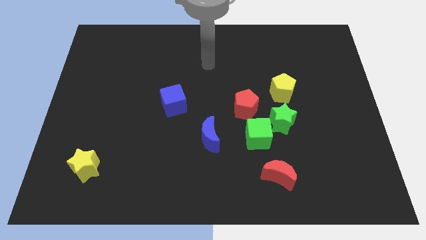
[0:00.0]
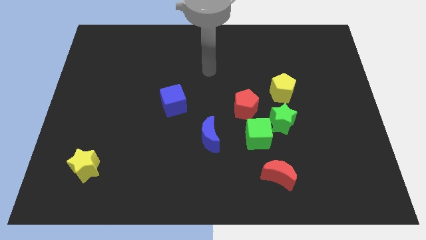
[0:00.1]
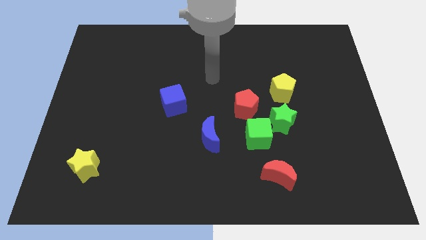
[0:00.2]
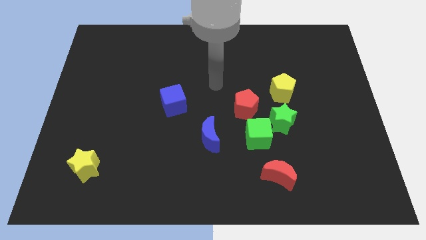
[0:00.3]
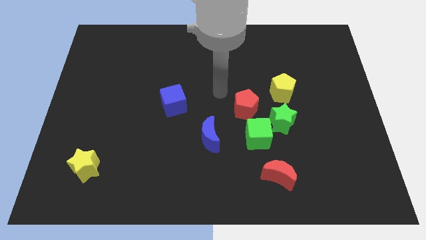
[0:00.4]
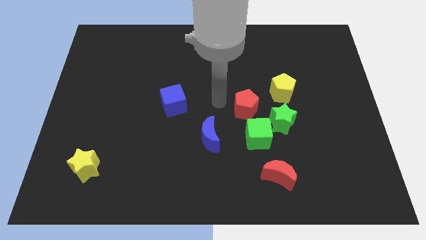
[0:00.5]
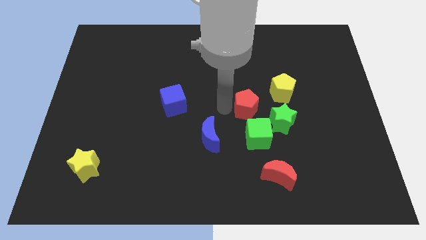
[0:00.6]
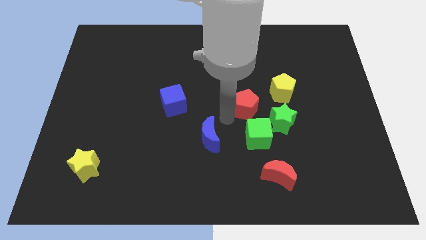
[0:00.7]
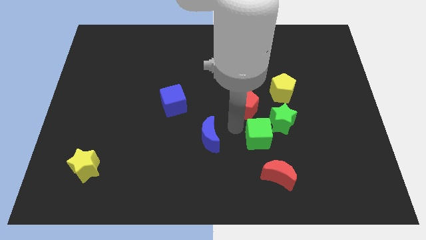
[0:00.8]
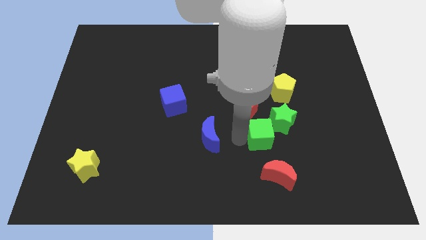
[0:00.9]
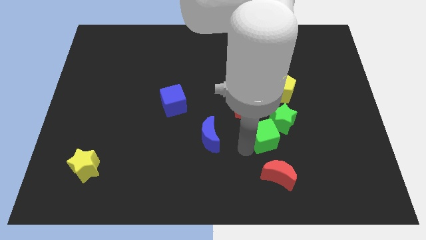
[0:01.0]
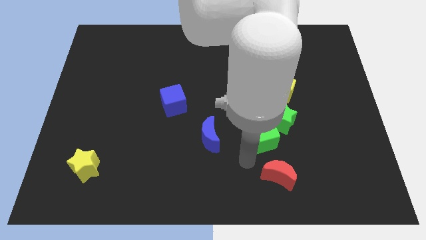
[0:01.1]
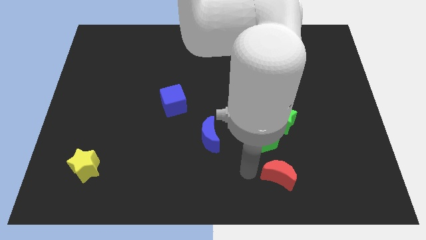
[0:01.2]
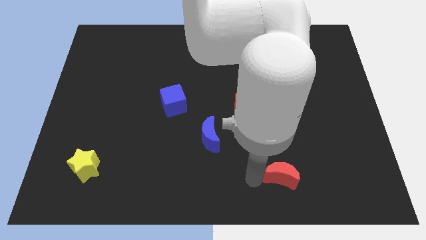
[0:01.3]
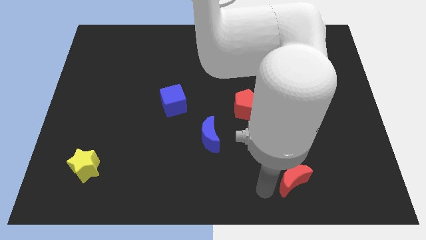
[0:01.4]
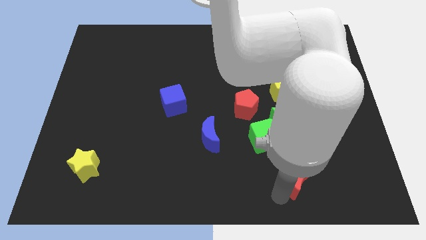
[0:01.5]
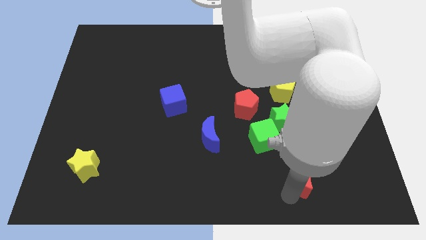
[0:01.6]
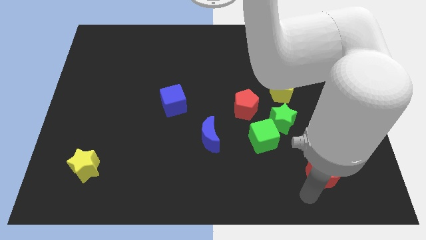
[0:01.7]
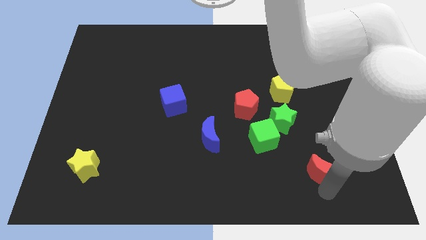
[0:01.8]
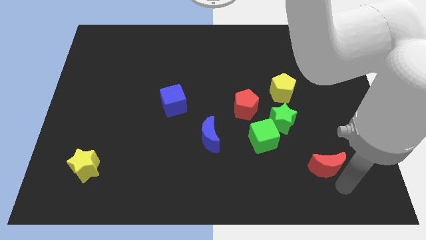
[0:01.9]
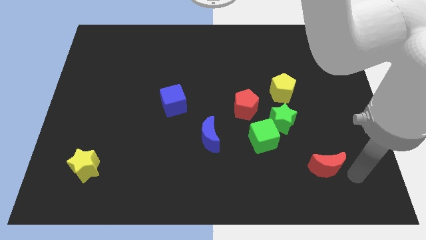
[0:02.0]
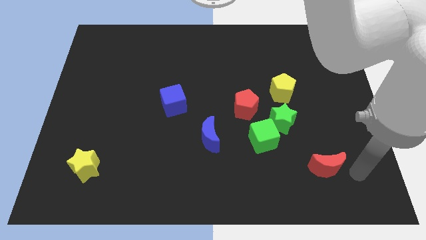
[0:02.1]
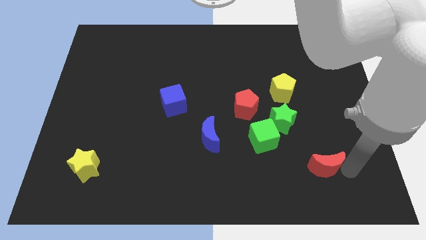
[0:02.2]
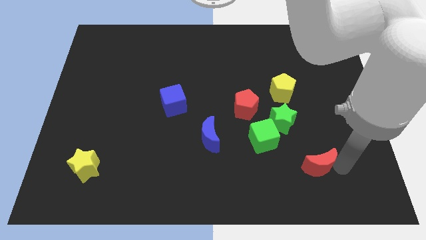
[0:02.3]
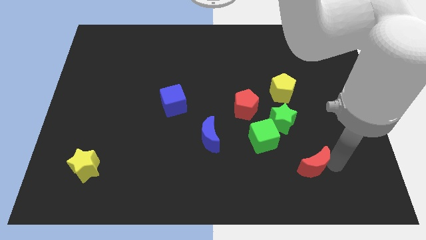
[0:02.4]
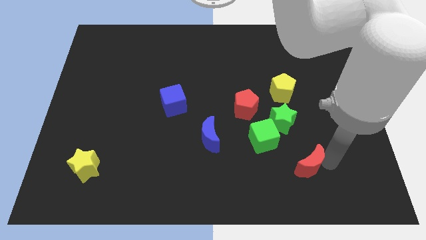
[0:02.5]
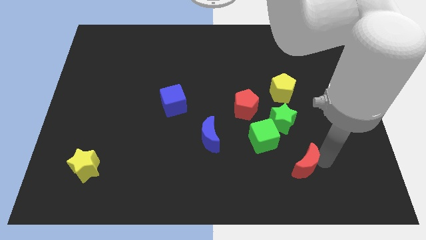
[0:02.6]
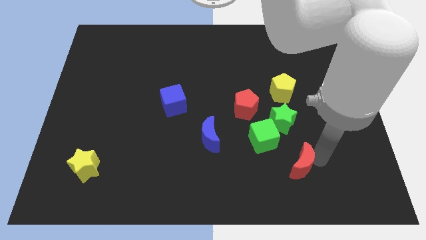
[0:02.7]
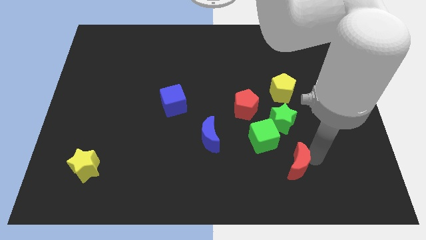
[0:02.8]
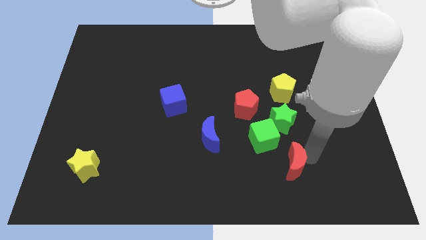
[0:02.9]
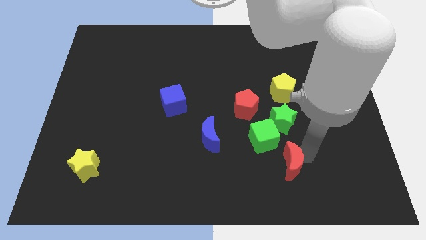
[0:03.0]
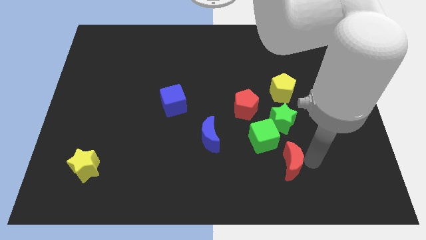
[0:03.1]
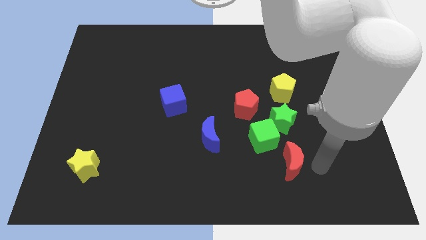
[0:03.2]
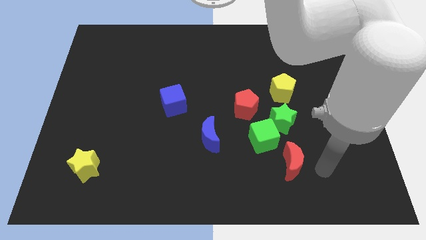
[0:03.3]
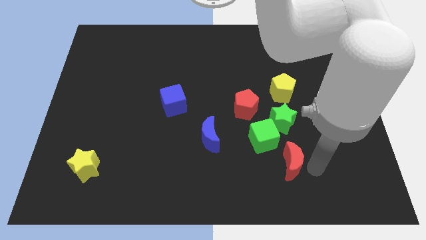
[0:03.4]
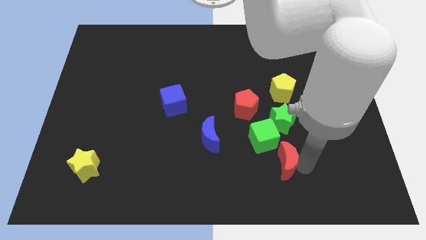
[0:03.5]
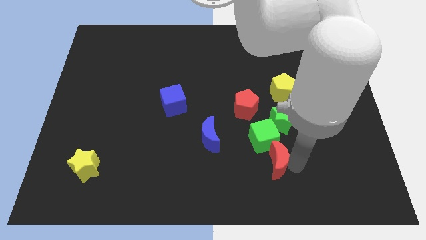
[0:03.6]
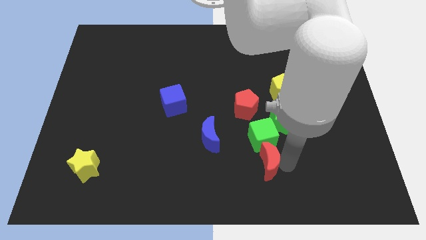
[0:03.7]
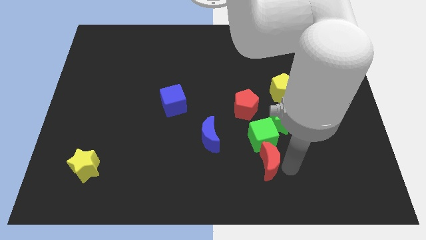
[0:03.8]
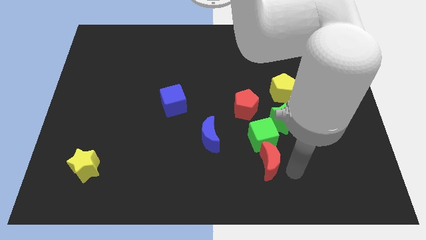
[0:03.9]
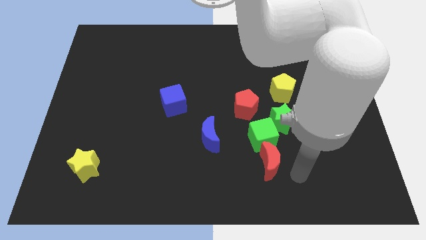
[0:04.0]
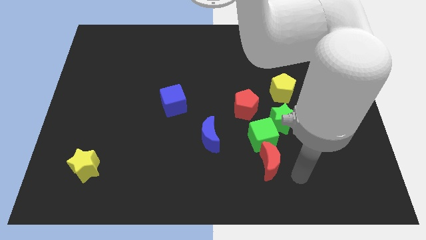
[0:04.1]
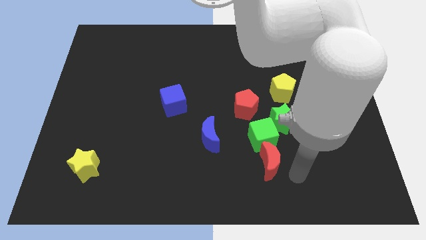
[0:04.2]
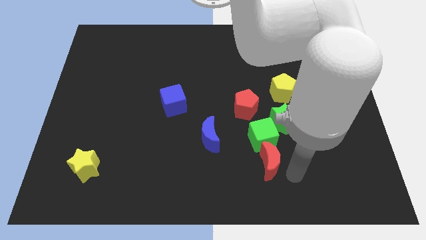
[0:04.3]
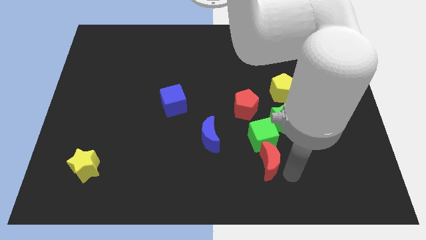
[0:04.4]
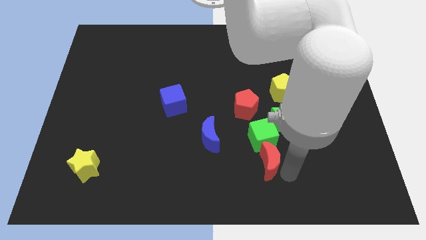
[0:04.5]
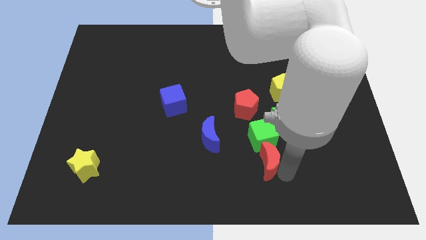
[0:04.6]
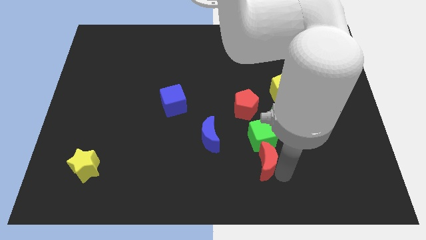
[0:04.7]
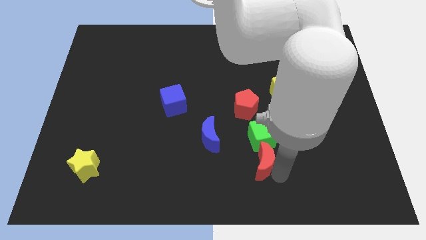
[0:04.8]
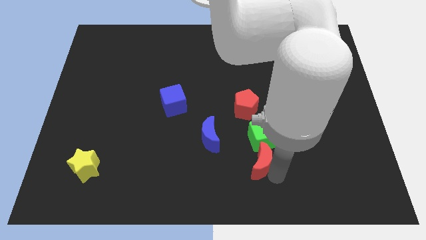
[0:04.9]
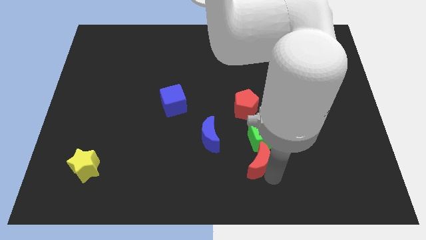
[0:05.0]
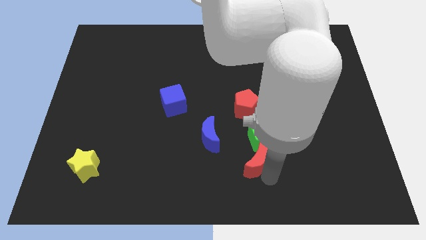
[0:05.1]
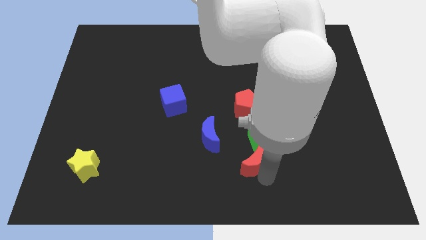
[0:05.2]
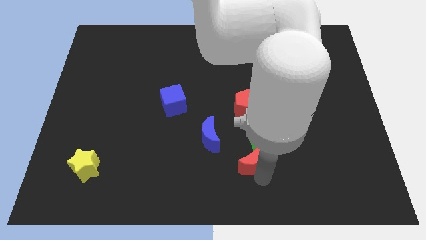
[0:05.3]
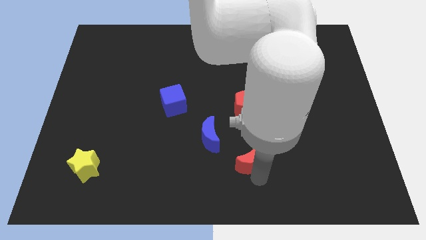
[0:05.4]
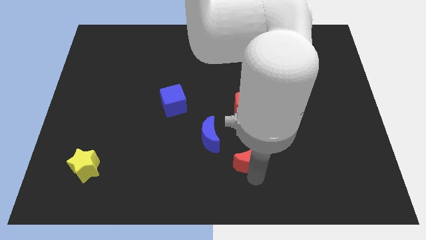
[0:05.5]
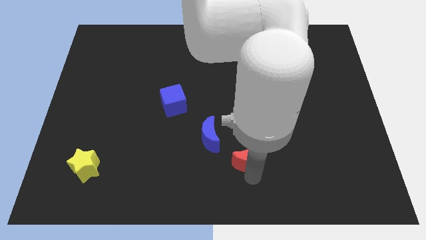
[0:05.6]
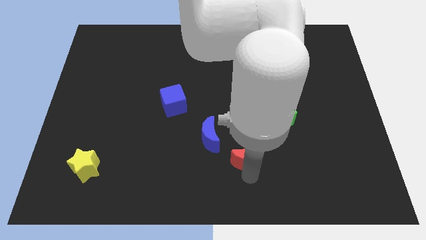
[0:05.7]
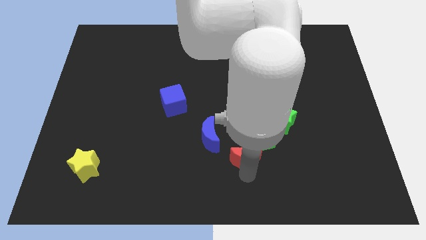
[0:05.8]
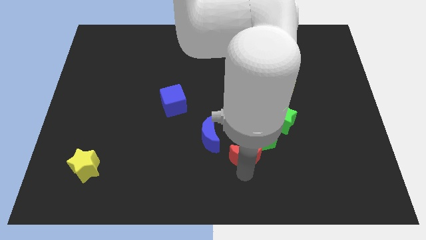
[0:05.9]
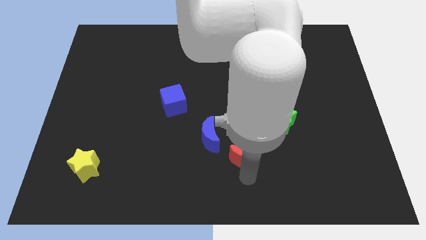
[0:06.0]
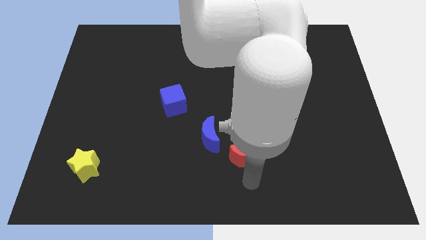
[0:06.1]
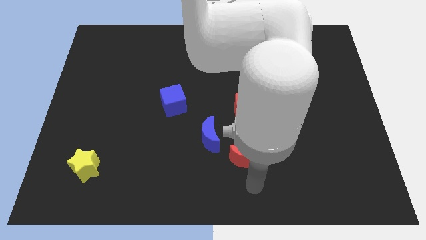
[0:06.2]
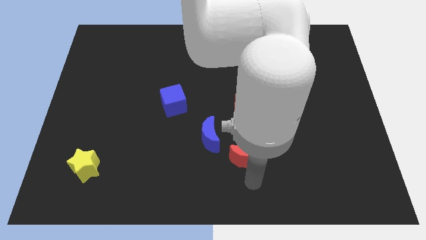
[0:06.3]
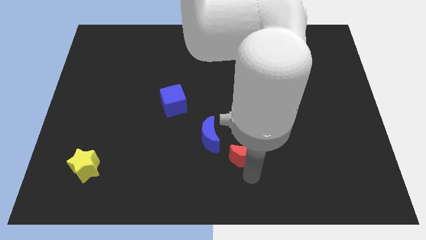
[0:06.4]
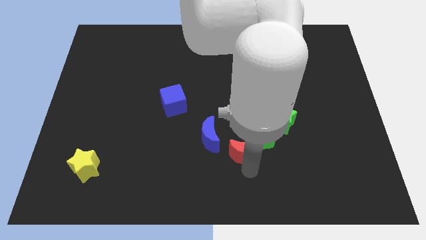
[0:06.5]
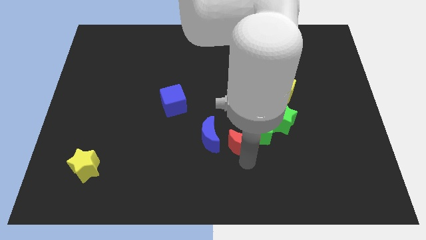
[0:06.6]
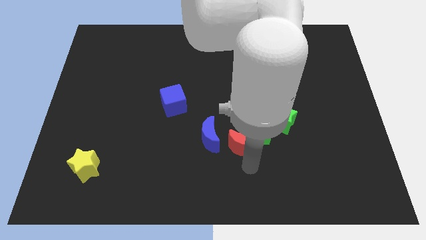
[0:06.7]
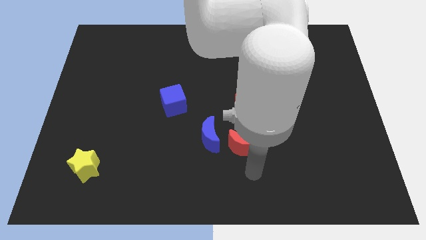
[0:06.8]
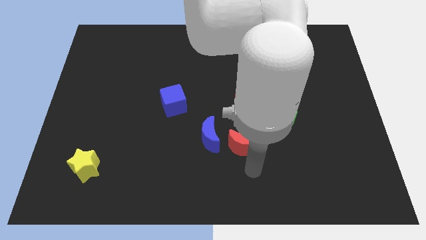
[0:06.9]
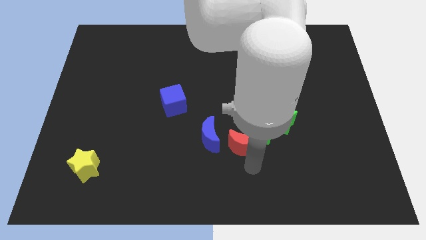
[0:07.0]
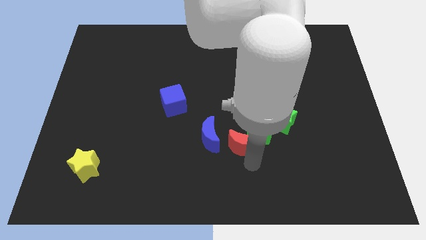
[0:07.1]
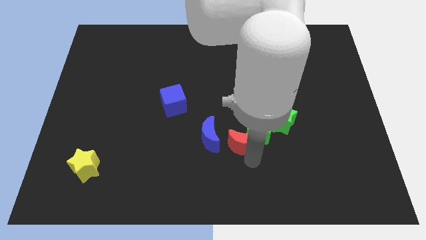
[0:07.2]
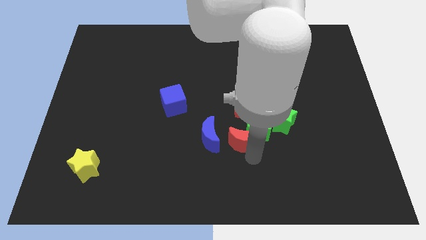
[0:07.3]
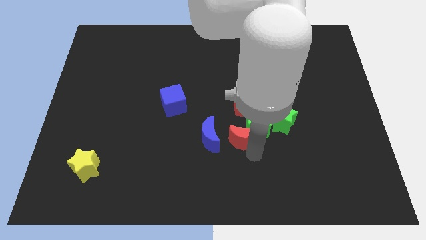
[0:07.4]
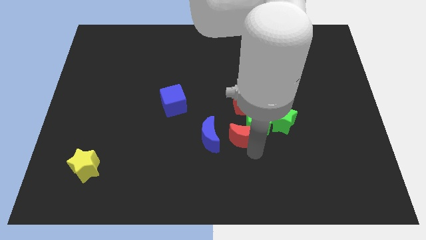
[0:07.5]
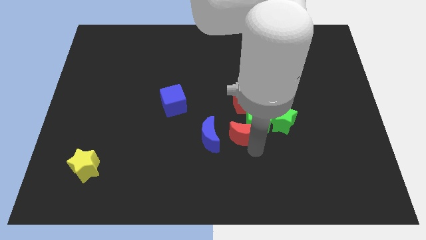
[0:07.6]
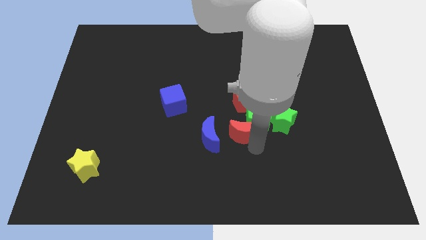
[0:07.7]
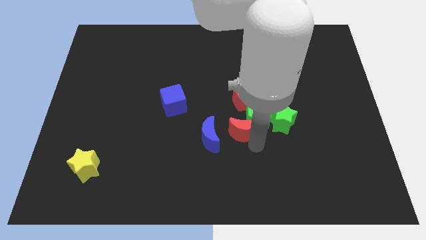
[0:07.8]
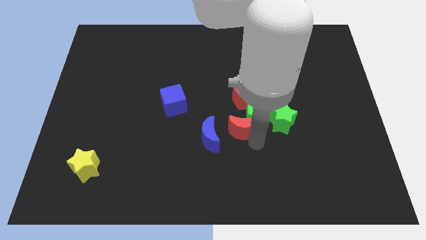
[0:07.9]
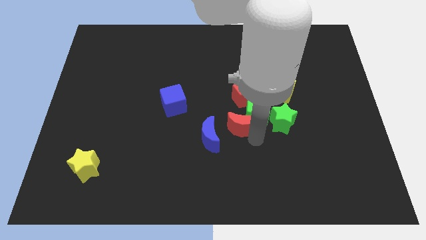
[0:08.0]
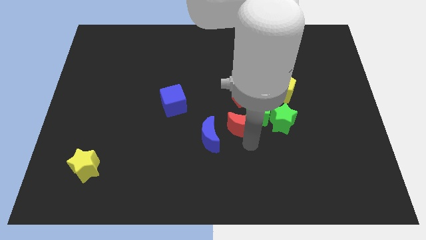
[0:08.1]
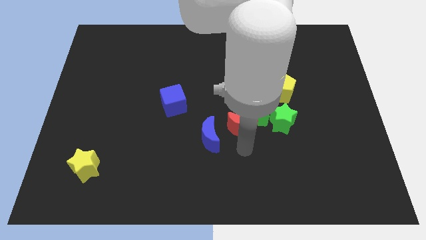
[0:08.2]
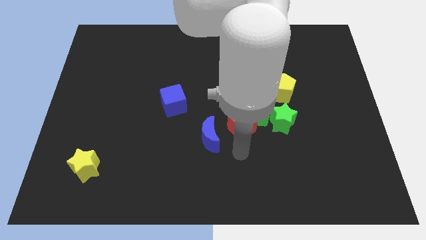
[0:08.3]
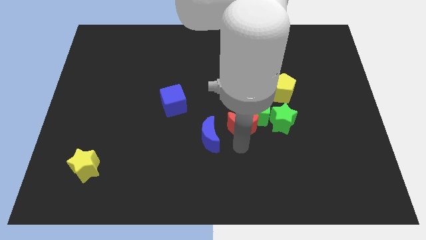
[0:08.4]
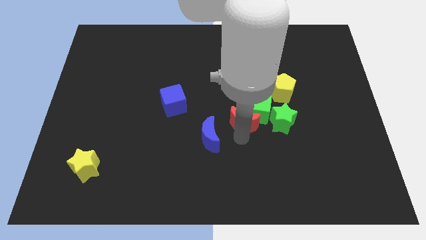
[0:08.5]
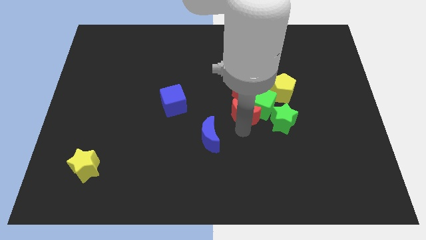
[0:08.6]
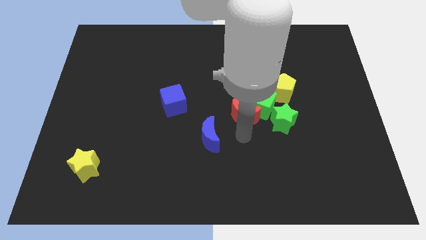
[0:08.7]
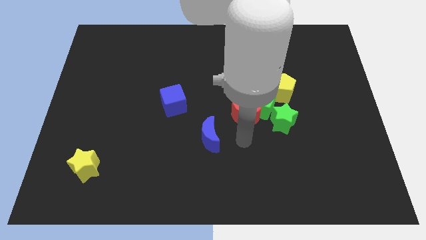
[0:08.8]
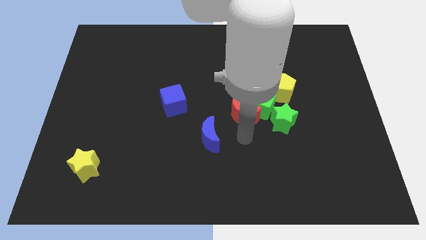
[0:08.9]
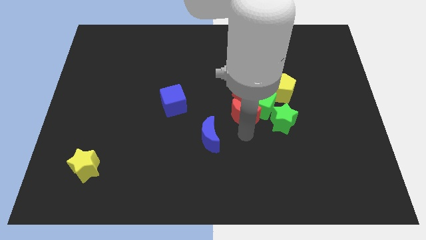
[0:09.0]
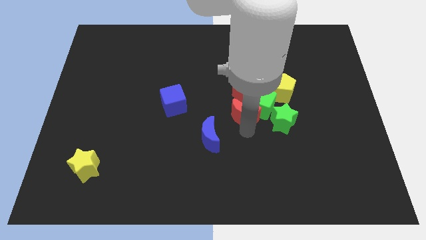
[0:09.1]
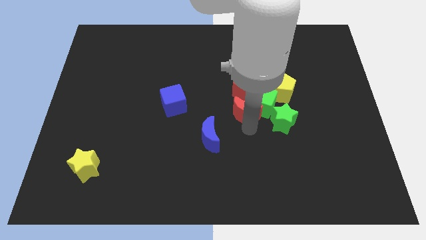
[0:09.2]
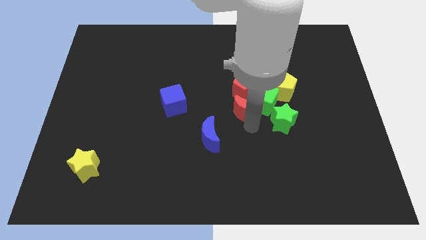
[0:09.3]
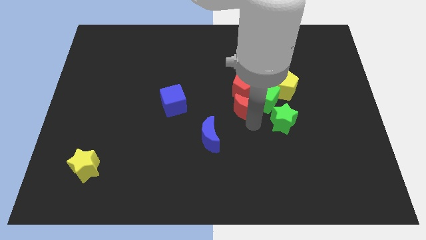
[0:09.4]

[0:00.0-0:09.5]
move the red moon towards the red pentagon
